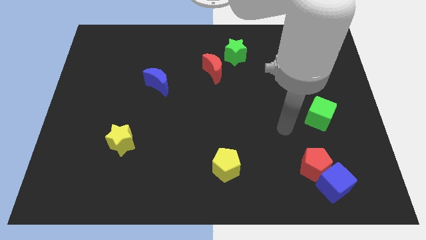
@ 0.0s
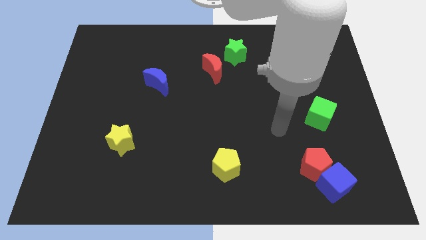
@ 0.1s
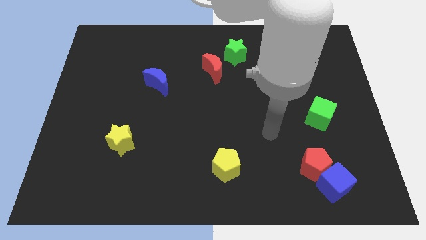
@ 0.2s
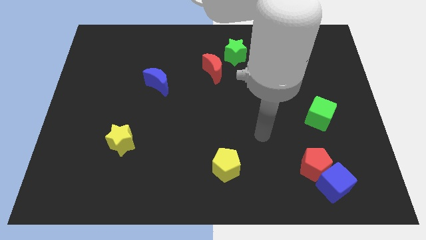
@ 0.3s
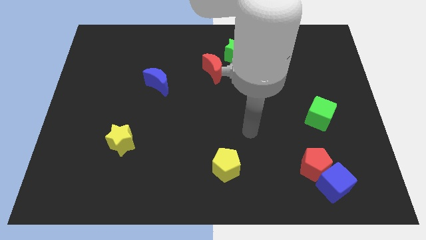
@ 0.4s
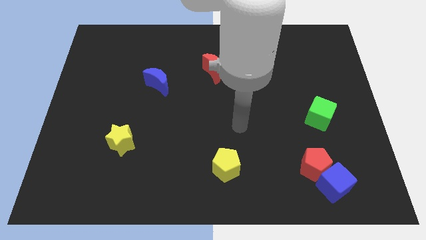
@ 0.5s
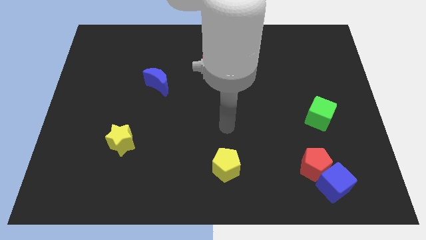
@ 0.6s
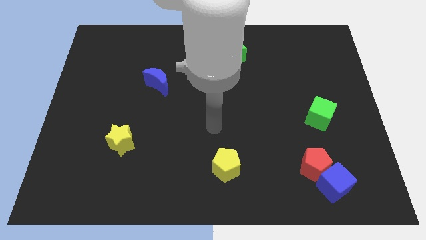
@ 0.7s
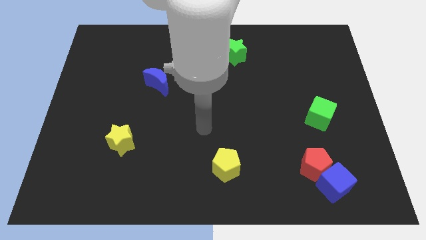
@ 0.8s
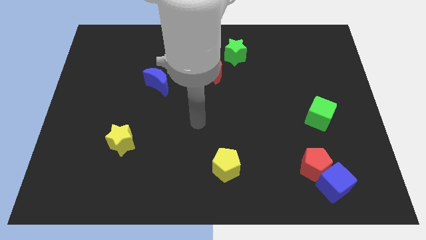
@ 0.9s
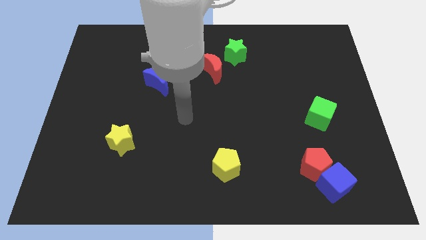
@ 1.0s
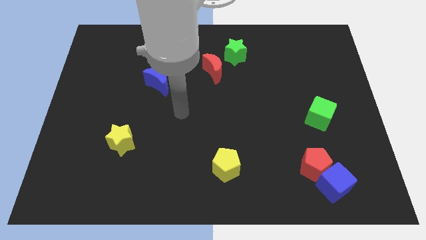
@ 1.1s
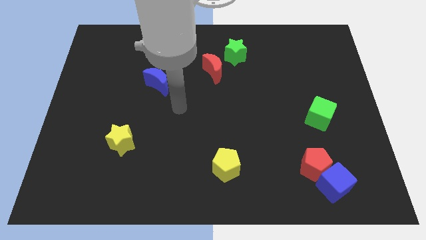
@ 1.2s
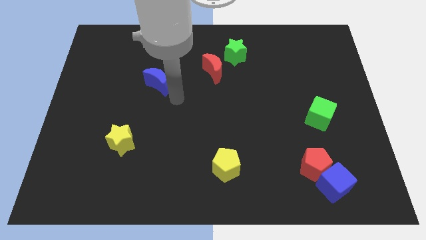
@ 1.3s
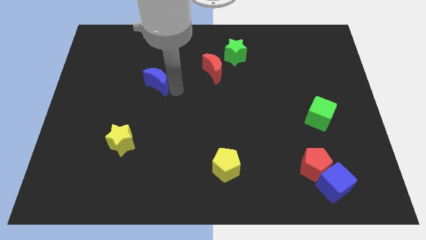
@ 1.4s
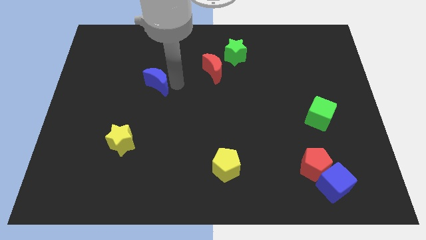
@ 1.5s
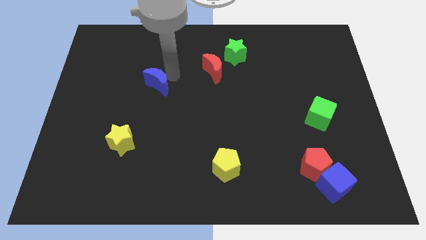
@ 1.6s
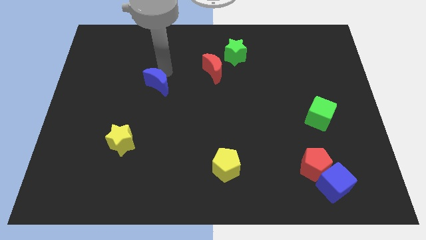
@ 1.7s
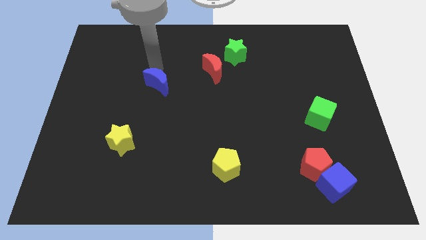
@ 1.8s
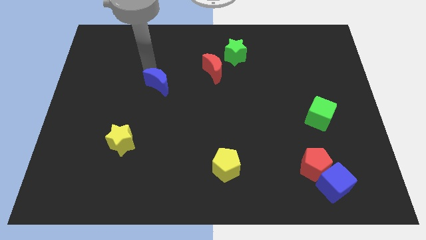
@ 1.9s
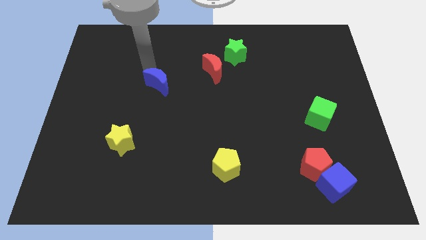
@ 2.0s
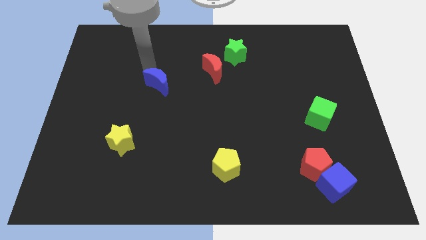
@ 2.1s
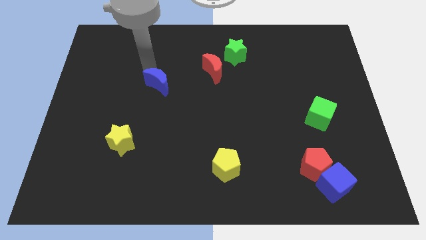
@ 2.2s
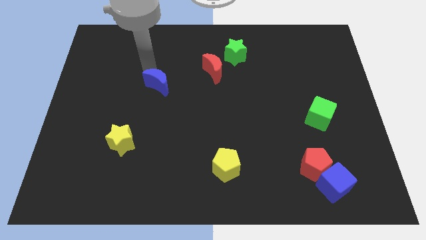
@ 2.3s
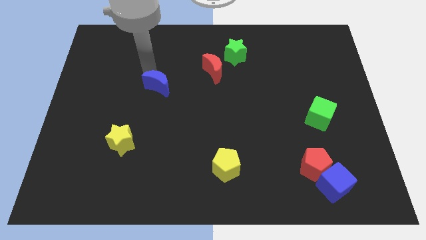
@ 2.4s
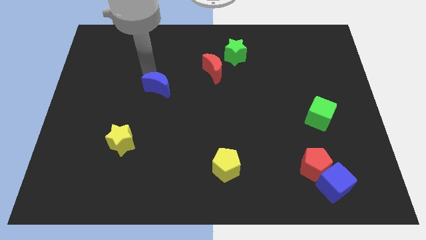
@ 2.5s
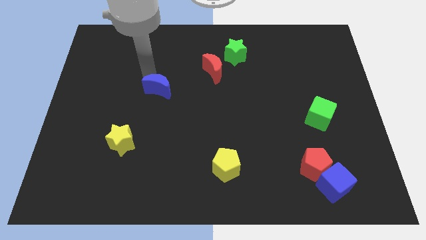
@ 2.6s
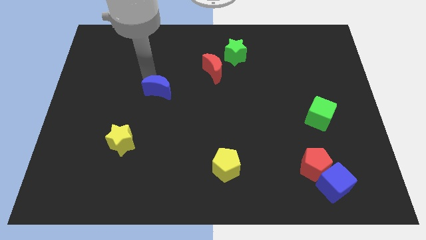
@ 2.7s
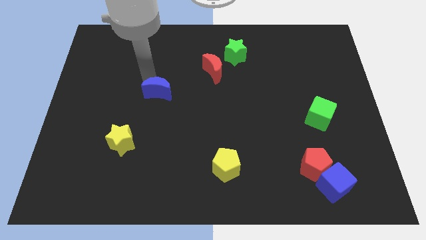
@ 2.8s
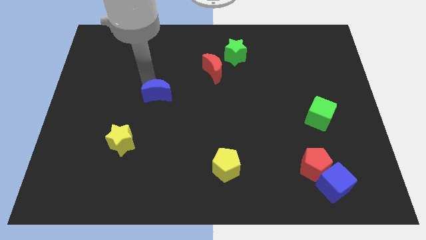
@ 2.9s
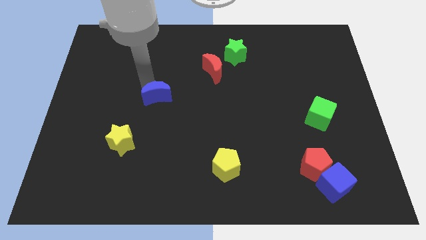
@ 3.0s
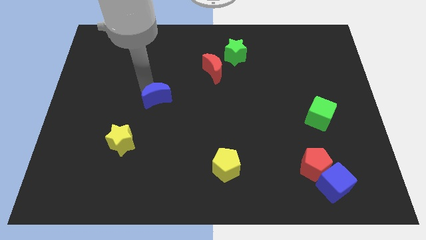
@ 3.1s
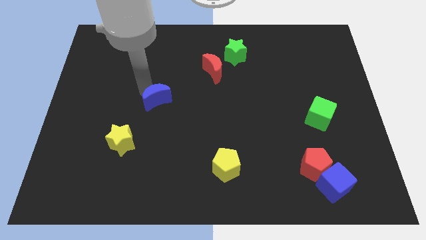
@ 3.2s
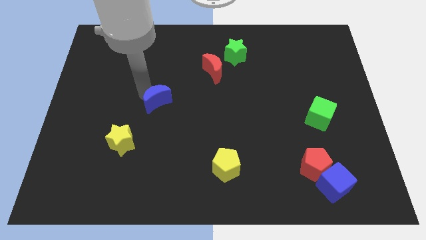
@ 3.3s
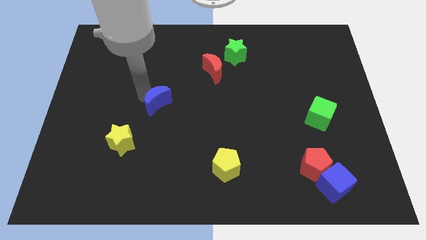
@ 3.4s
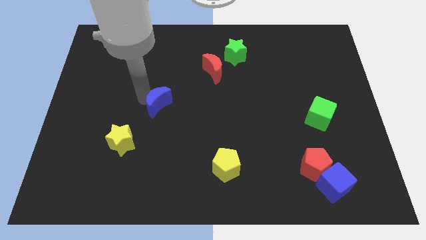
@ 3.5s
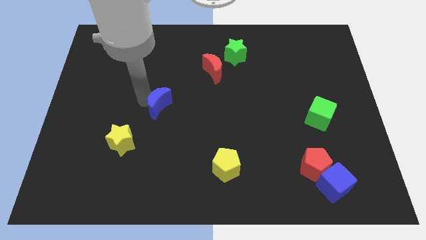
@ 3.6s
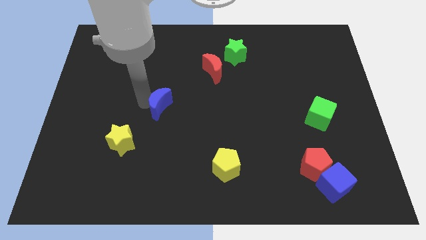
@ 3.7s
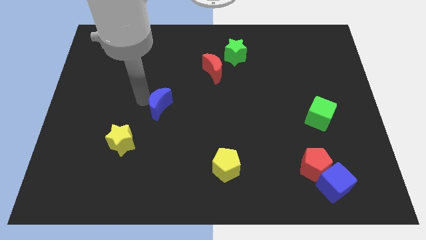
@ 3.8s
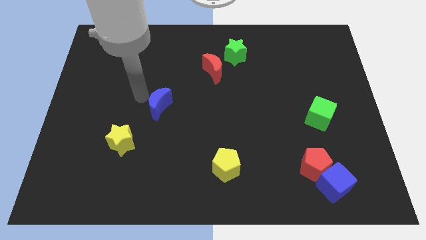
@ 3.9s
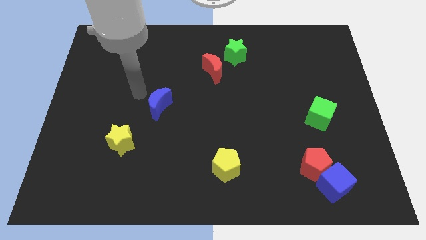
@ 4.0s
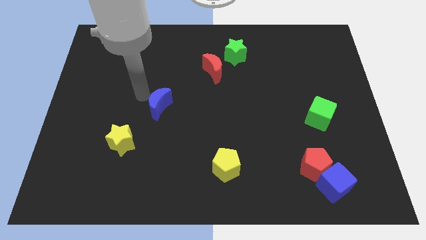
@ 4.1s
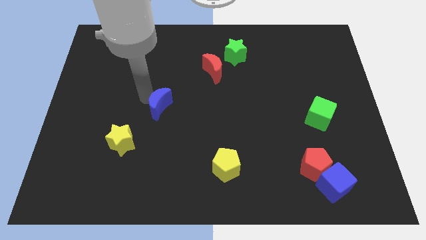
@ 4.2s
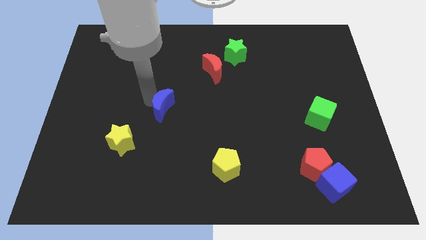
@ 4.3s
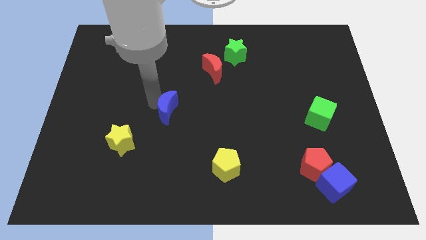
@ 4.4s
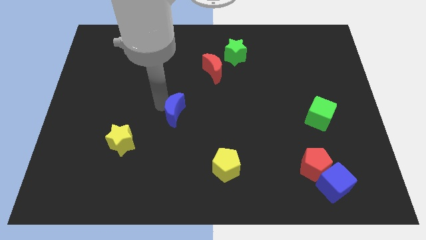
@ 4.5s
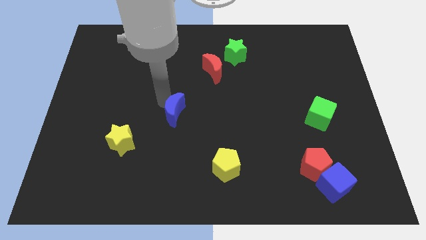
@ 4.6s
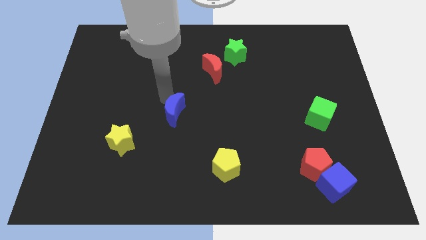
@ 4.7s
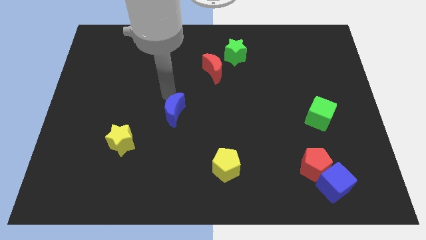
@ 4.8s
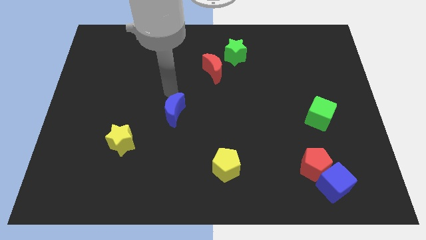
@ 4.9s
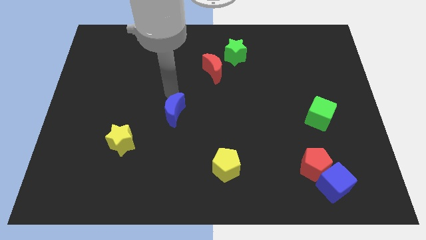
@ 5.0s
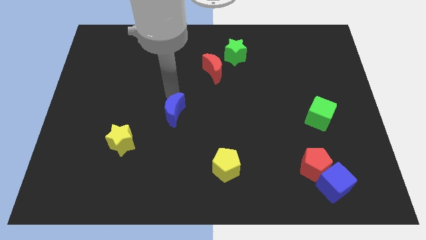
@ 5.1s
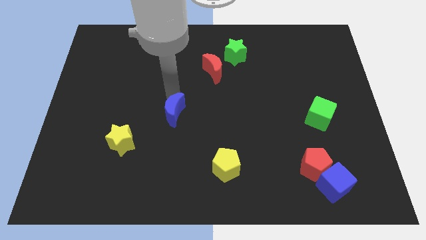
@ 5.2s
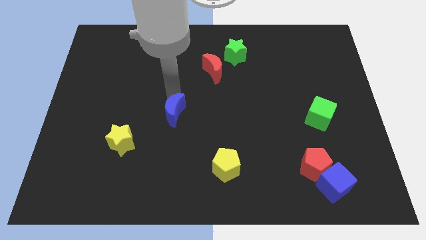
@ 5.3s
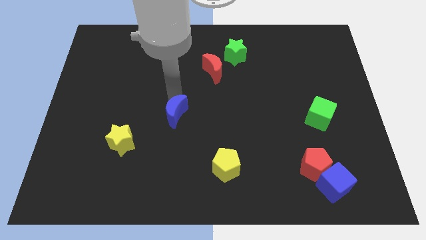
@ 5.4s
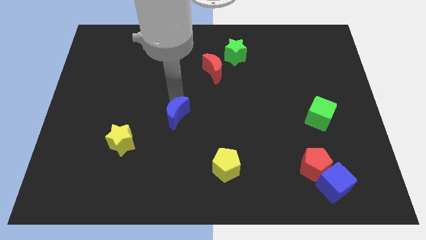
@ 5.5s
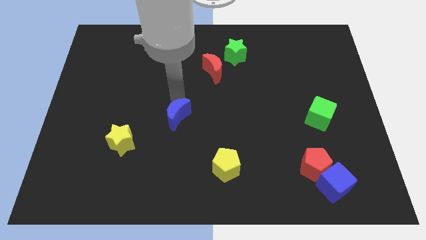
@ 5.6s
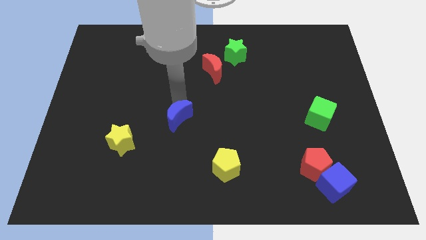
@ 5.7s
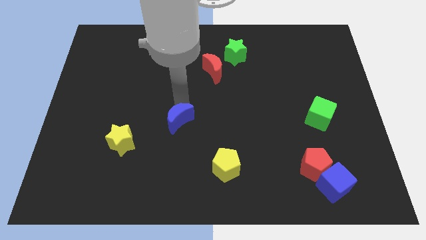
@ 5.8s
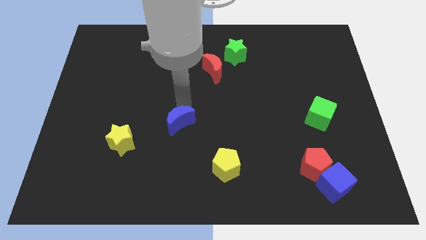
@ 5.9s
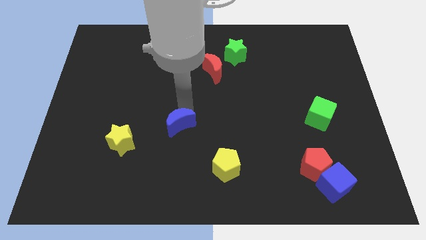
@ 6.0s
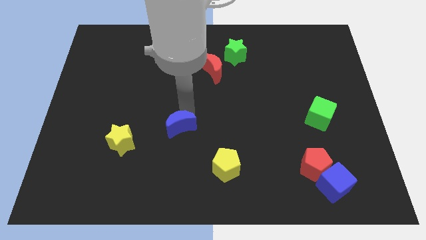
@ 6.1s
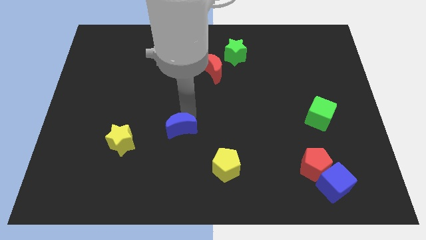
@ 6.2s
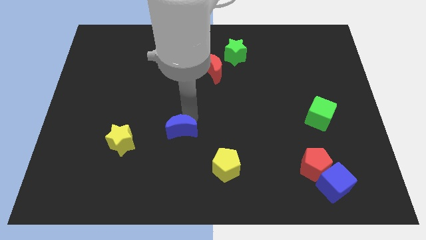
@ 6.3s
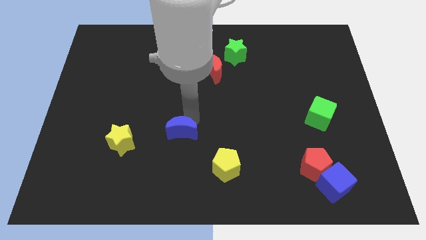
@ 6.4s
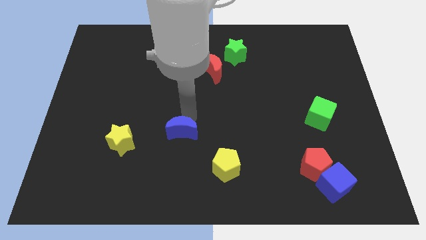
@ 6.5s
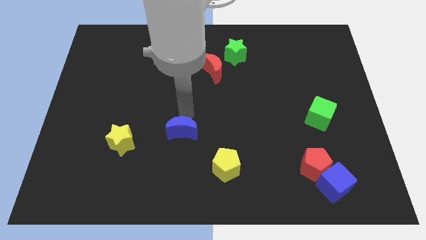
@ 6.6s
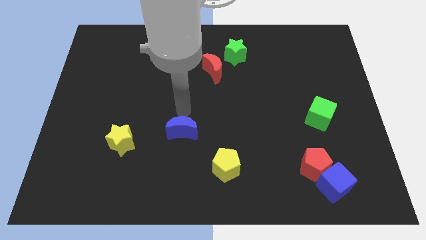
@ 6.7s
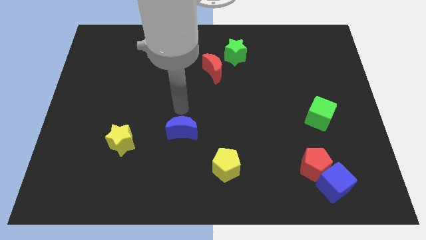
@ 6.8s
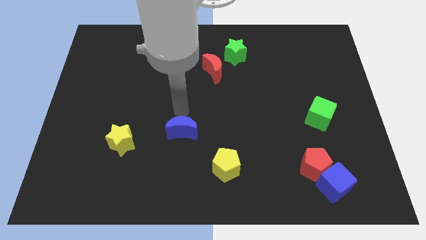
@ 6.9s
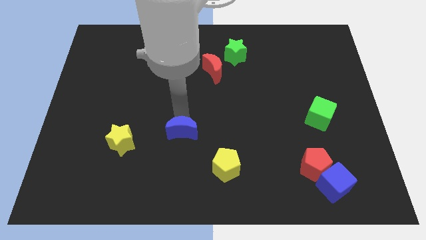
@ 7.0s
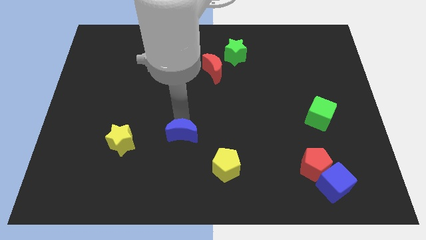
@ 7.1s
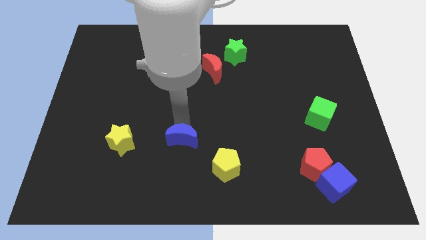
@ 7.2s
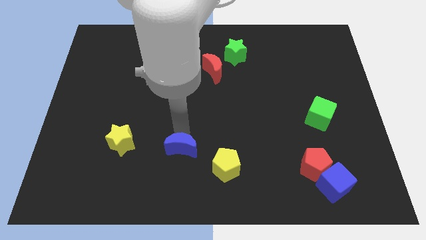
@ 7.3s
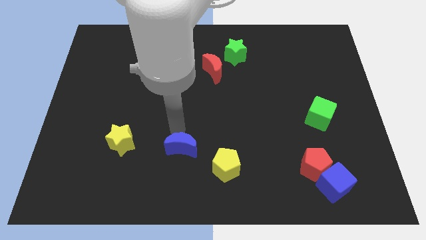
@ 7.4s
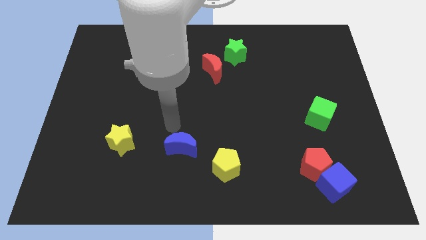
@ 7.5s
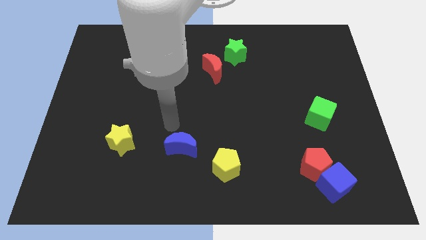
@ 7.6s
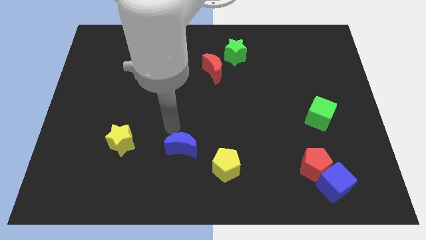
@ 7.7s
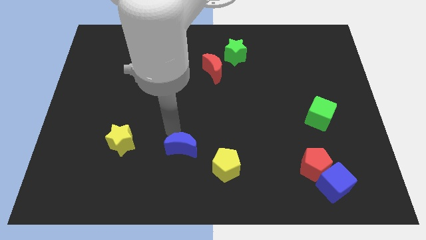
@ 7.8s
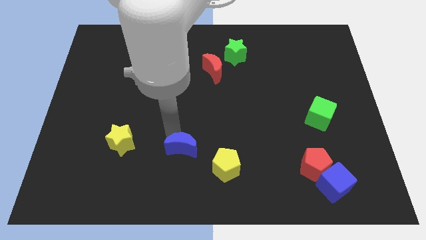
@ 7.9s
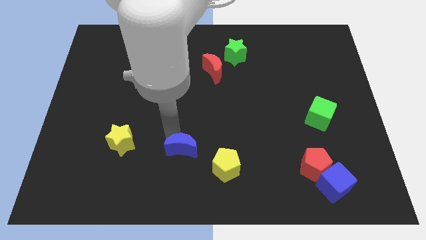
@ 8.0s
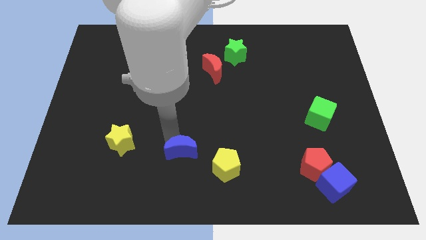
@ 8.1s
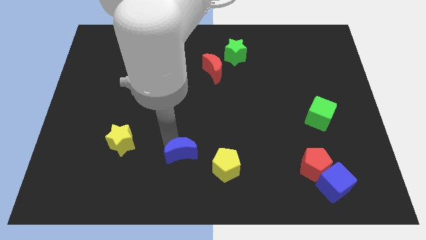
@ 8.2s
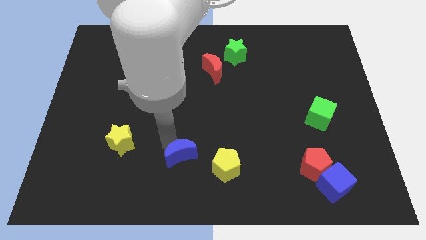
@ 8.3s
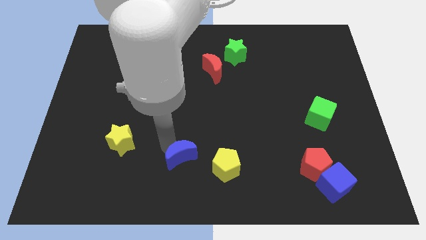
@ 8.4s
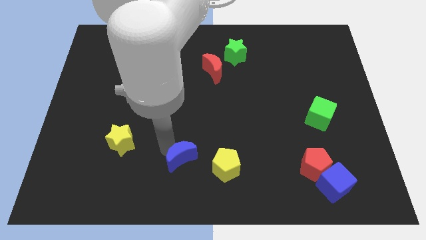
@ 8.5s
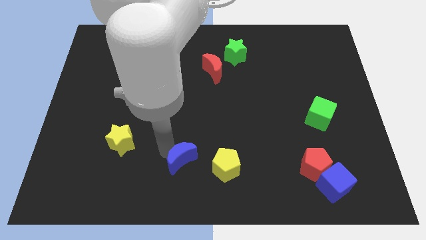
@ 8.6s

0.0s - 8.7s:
move the blue moon to the bottom side
